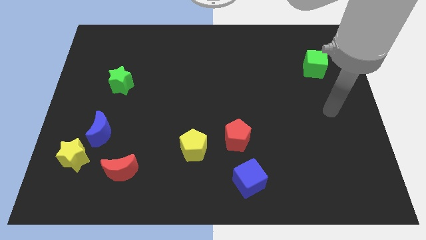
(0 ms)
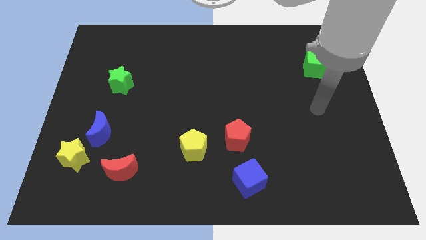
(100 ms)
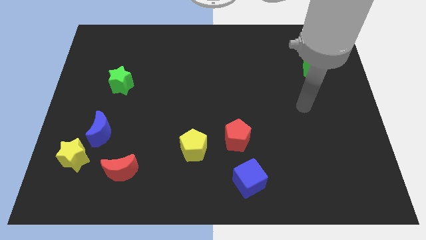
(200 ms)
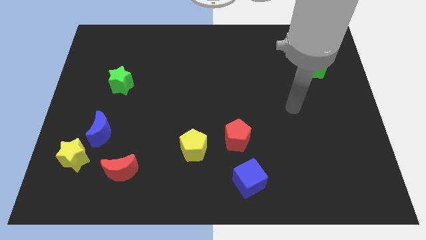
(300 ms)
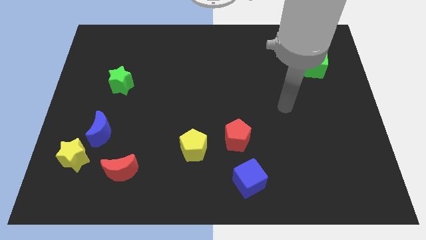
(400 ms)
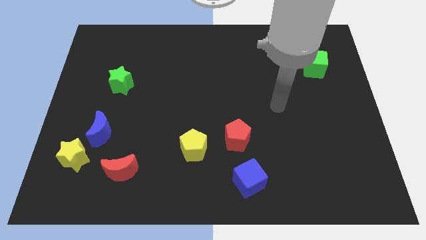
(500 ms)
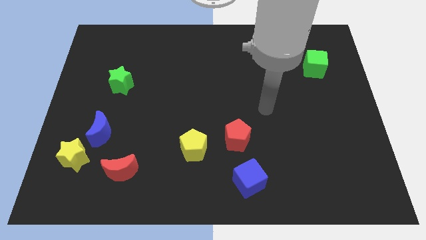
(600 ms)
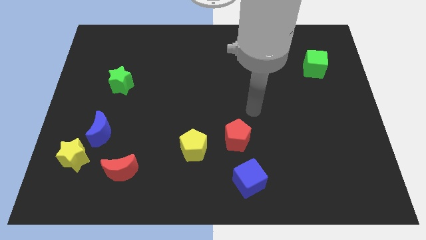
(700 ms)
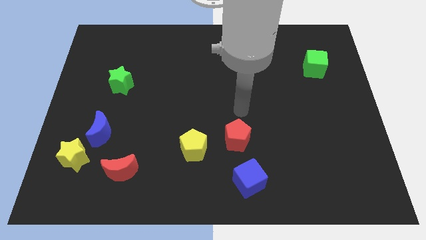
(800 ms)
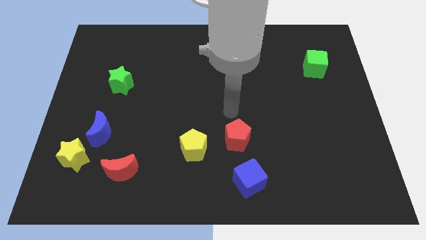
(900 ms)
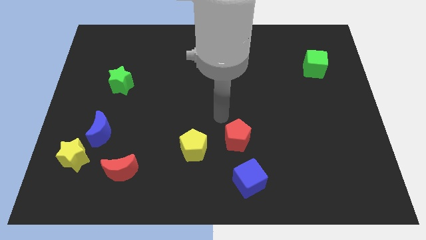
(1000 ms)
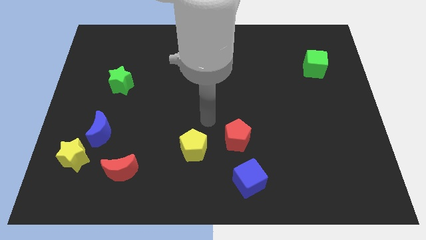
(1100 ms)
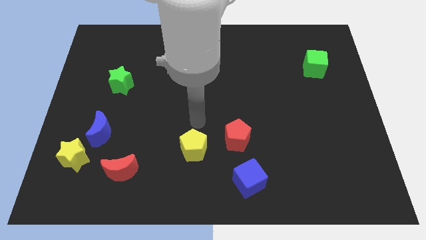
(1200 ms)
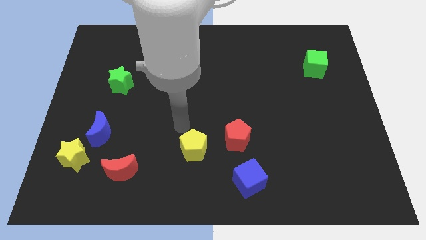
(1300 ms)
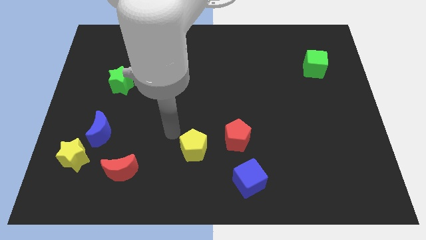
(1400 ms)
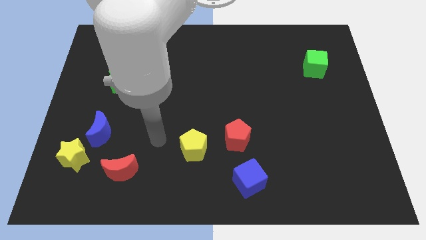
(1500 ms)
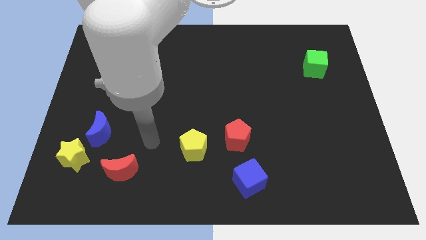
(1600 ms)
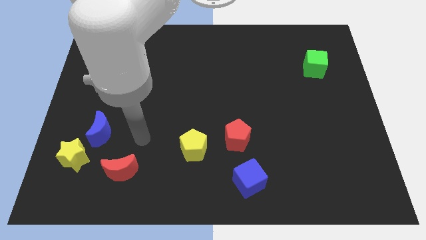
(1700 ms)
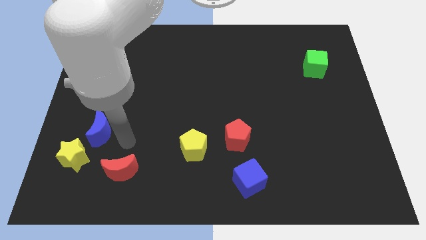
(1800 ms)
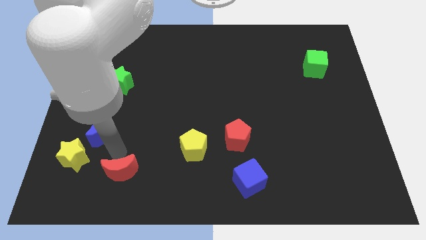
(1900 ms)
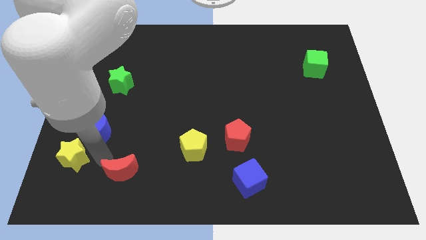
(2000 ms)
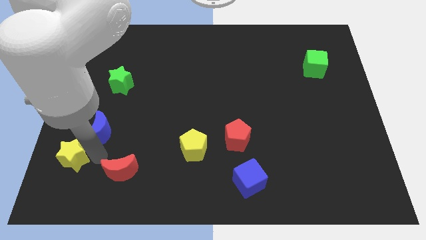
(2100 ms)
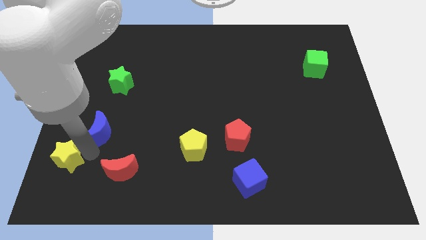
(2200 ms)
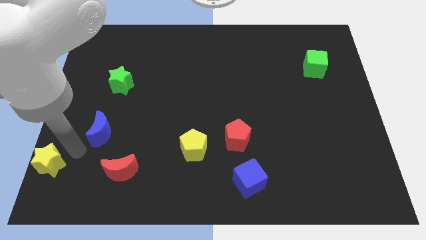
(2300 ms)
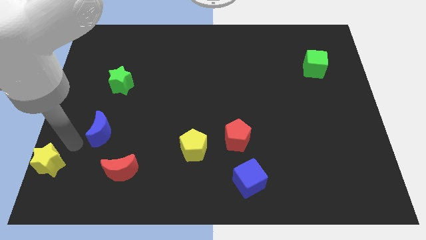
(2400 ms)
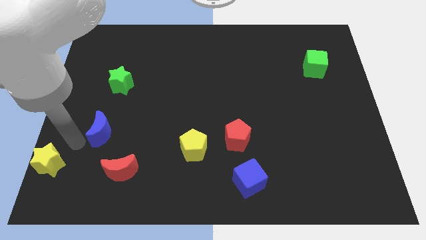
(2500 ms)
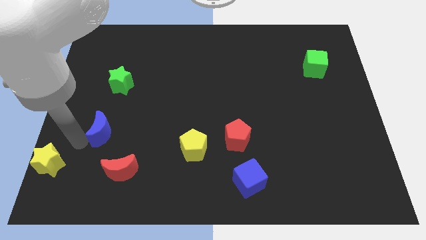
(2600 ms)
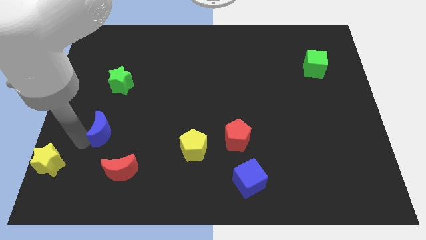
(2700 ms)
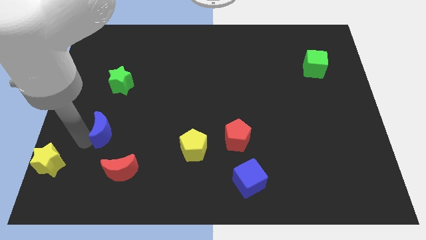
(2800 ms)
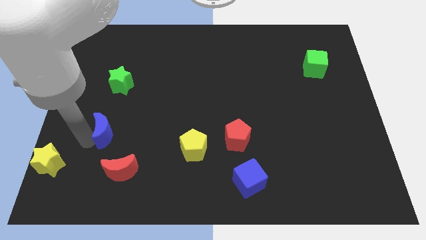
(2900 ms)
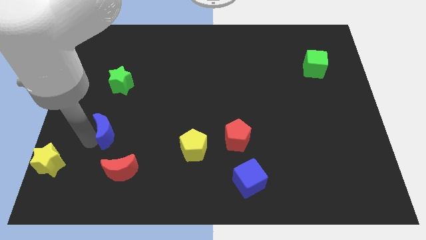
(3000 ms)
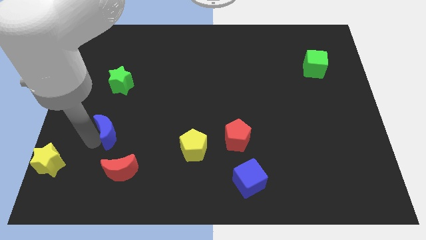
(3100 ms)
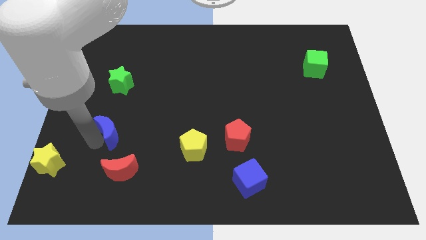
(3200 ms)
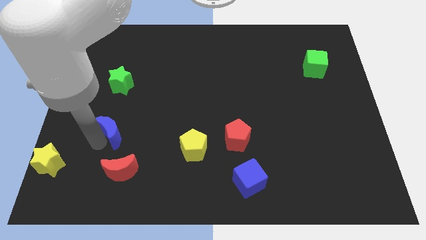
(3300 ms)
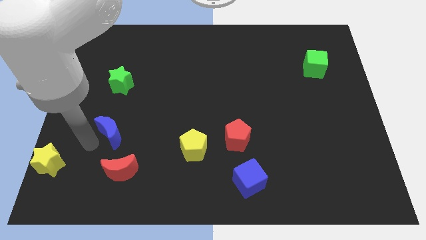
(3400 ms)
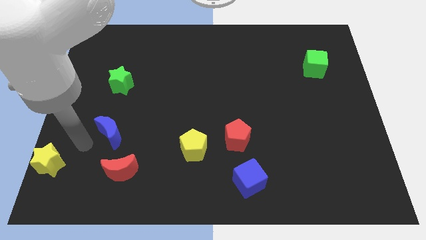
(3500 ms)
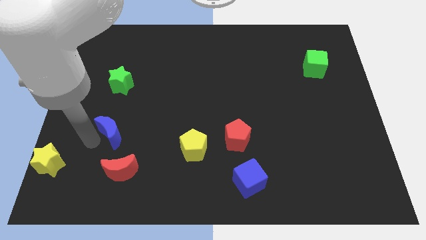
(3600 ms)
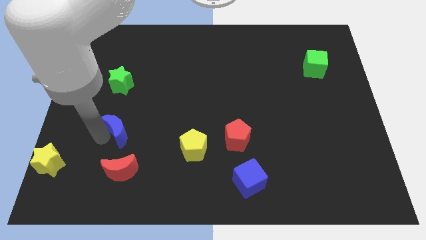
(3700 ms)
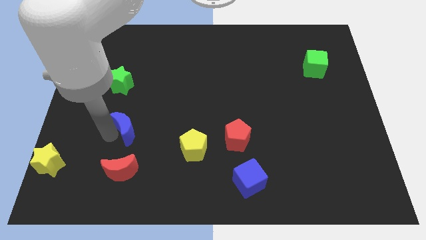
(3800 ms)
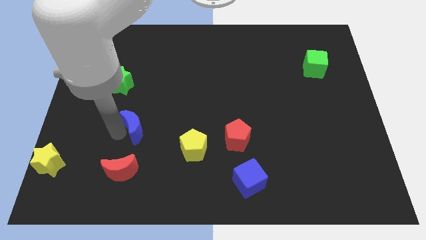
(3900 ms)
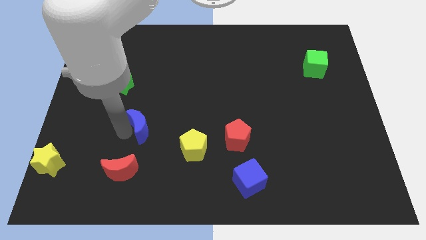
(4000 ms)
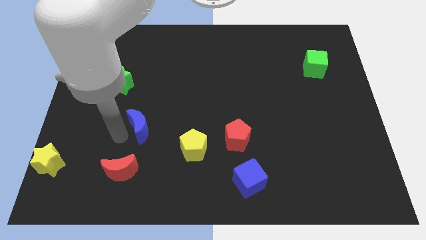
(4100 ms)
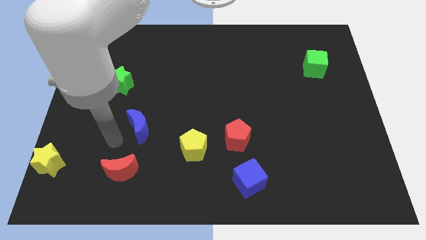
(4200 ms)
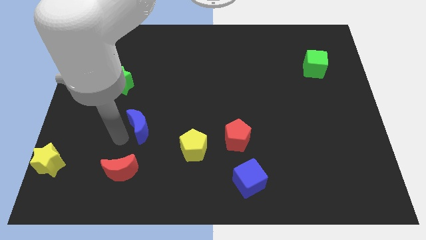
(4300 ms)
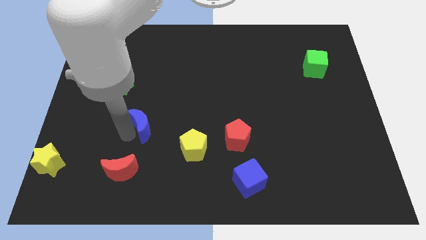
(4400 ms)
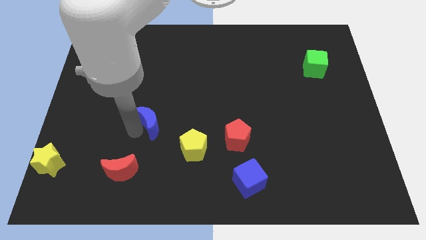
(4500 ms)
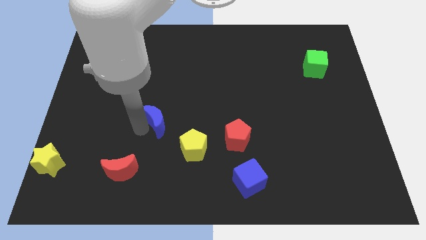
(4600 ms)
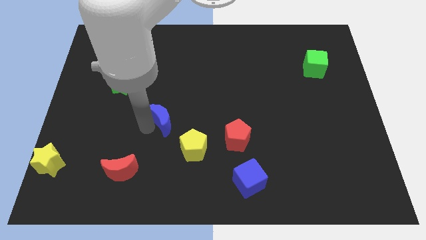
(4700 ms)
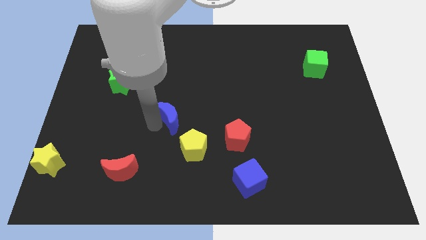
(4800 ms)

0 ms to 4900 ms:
put the blue moon to the middle

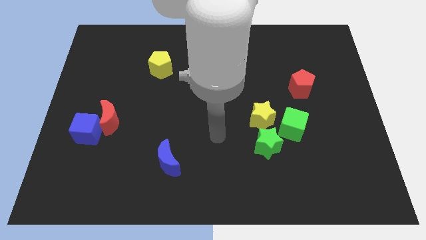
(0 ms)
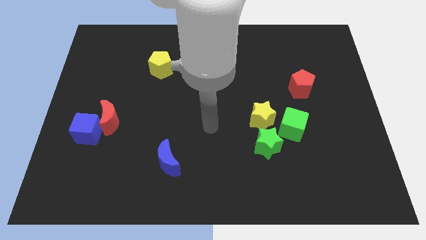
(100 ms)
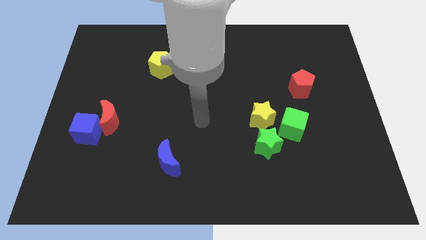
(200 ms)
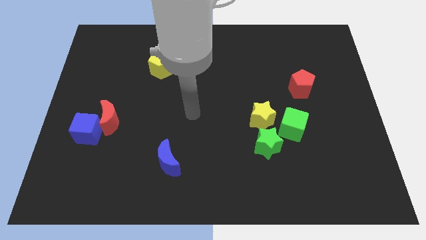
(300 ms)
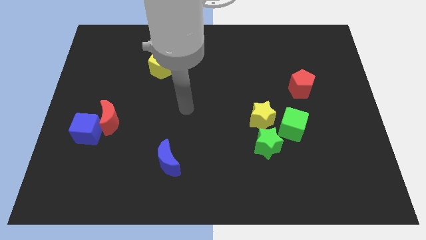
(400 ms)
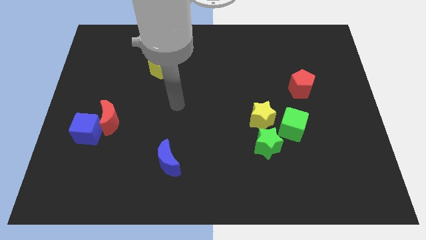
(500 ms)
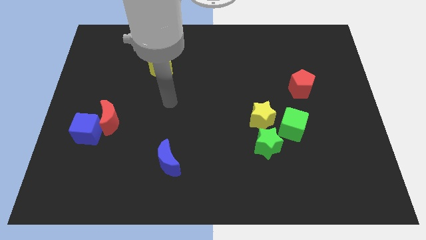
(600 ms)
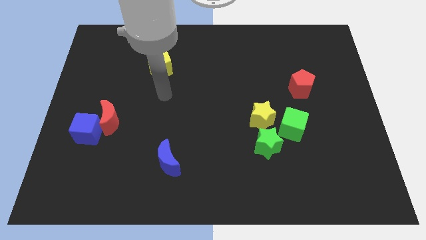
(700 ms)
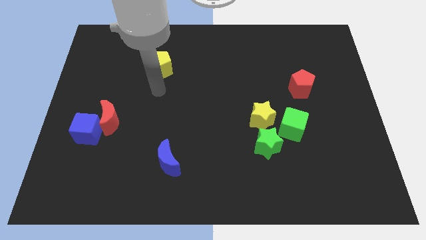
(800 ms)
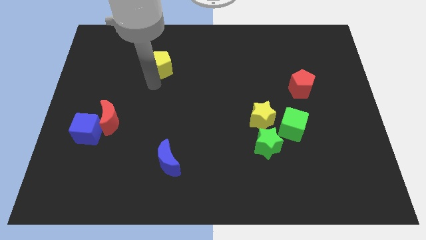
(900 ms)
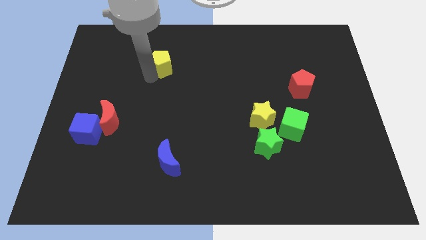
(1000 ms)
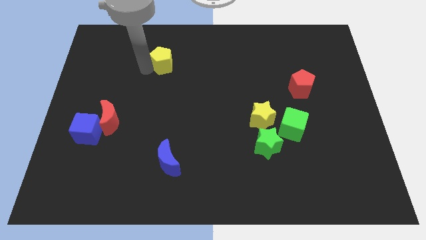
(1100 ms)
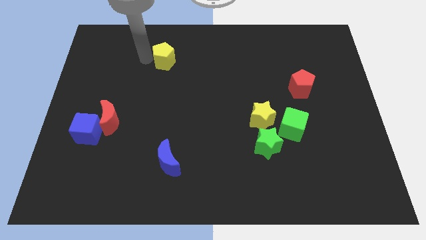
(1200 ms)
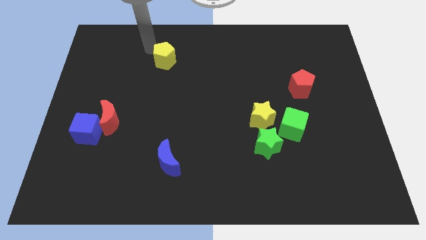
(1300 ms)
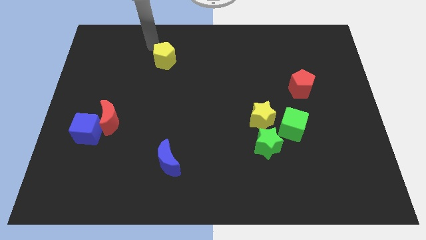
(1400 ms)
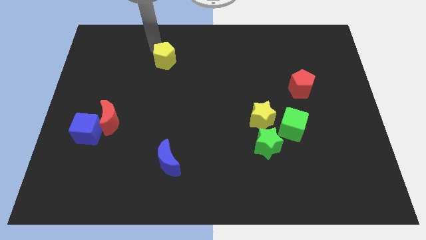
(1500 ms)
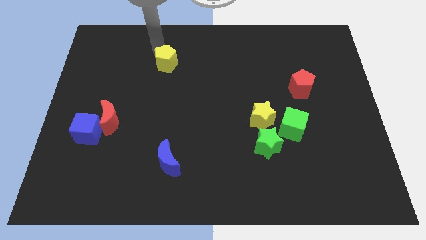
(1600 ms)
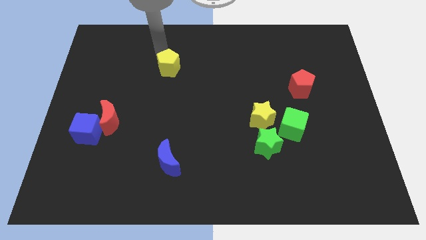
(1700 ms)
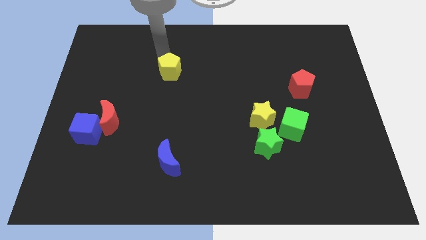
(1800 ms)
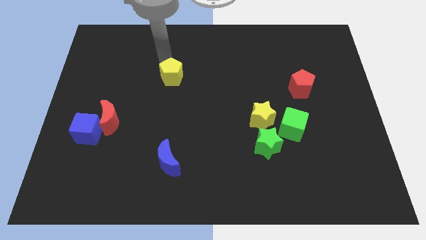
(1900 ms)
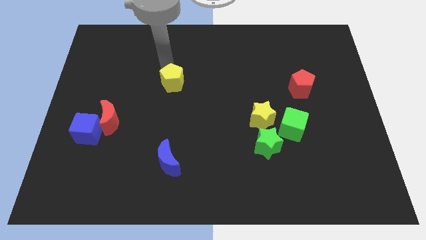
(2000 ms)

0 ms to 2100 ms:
put the yellow pentagon to the center of the board
